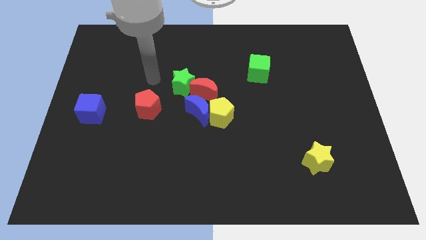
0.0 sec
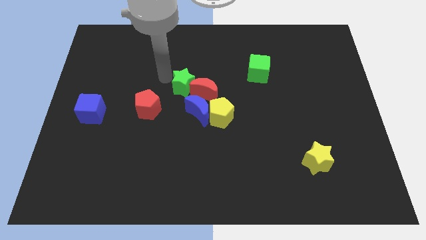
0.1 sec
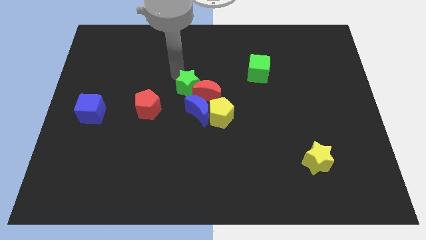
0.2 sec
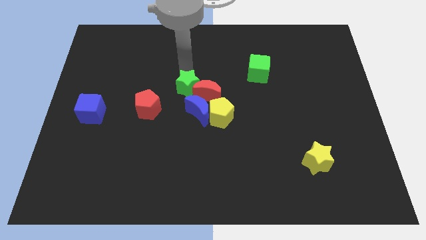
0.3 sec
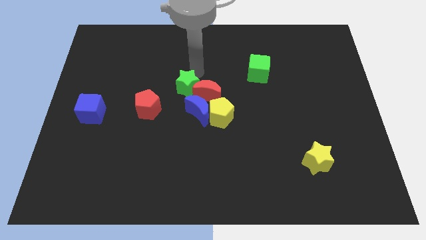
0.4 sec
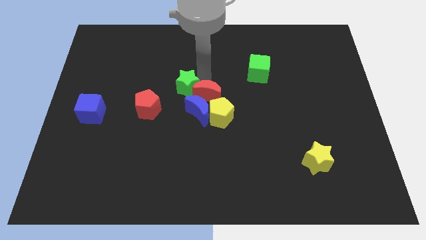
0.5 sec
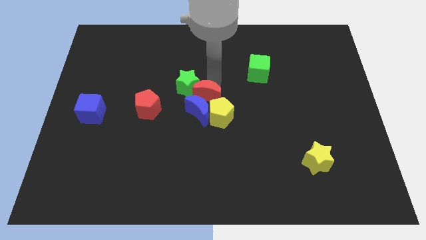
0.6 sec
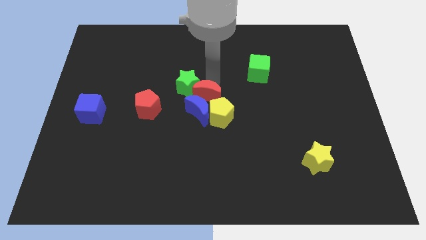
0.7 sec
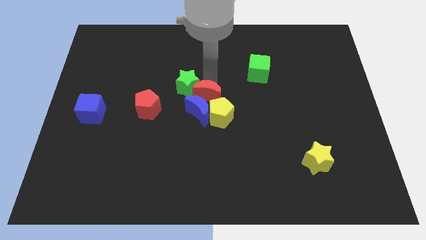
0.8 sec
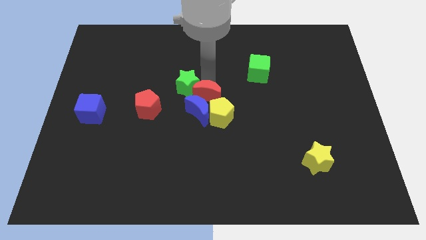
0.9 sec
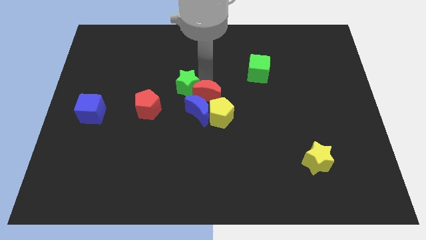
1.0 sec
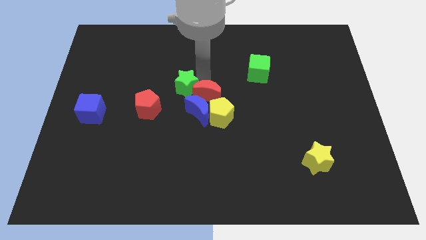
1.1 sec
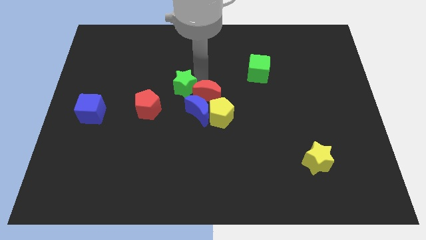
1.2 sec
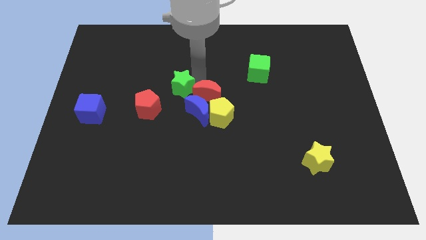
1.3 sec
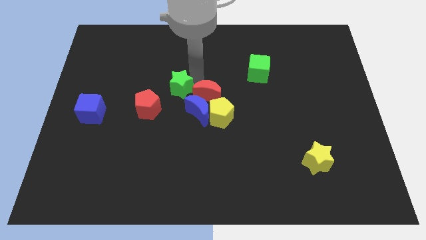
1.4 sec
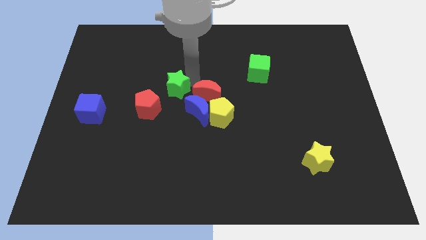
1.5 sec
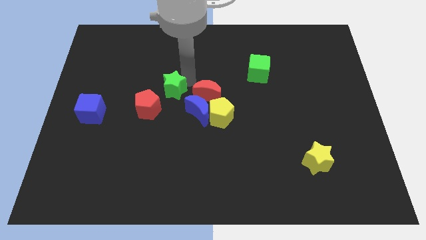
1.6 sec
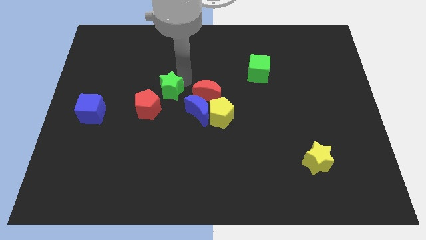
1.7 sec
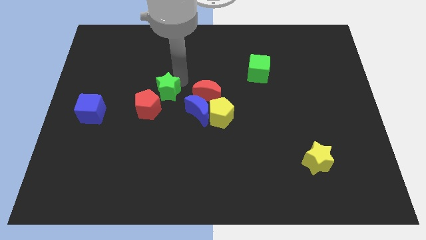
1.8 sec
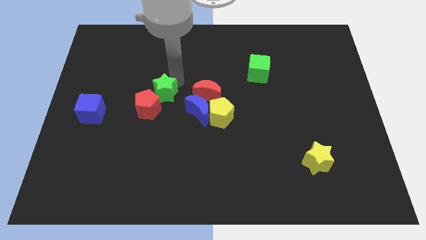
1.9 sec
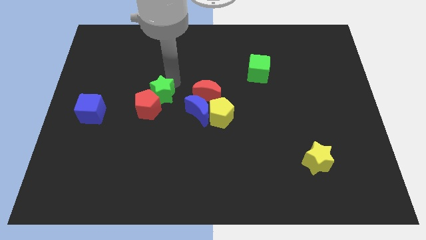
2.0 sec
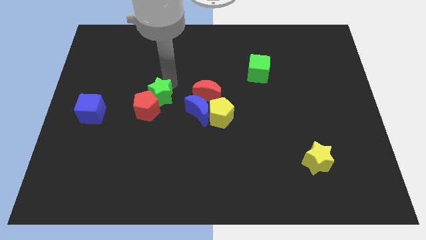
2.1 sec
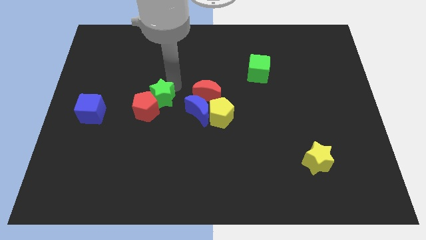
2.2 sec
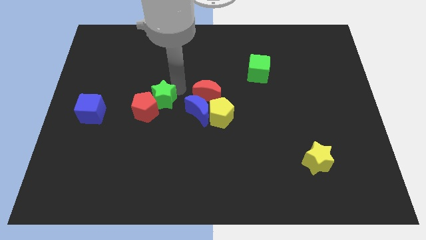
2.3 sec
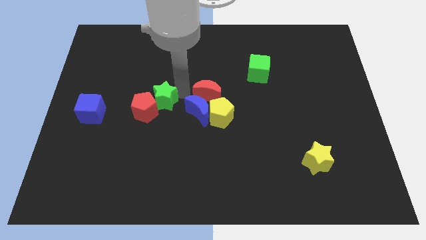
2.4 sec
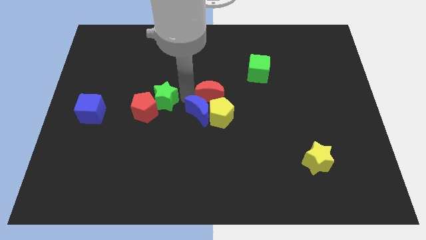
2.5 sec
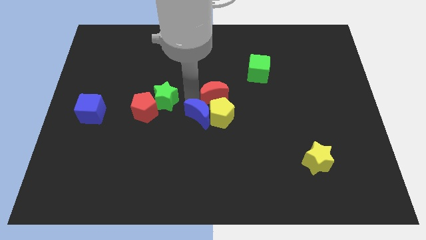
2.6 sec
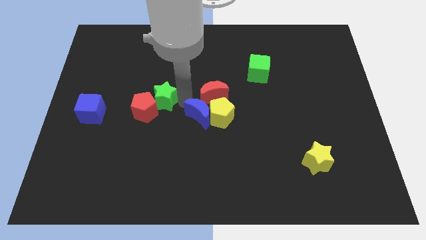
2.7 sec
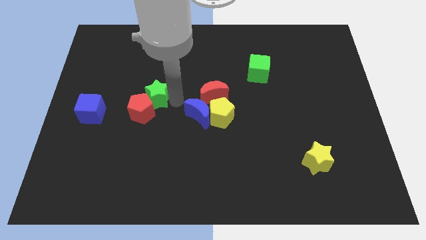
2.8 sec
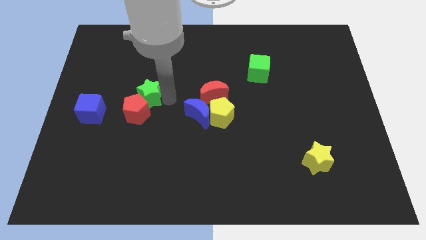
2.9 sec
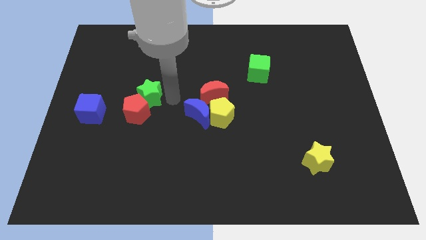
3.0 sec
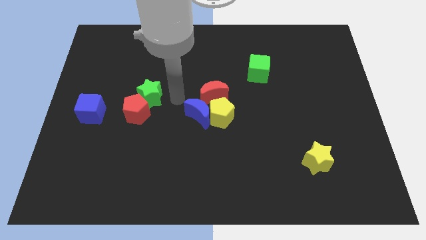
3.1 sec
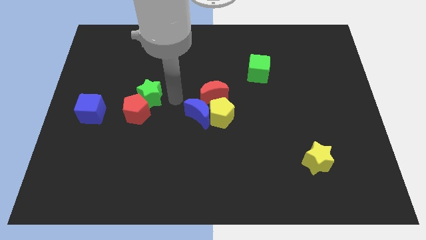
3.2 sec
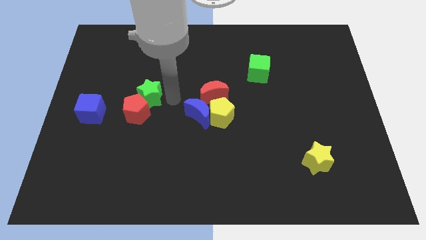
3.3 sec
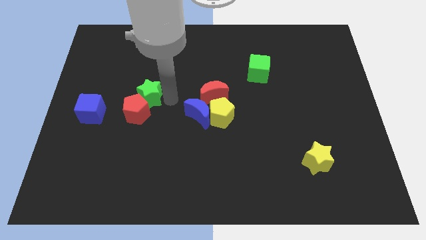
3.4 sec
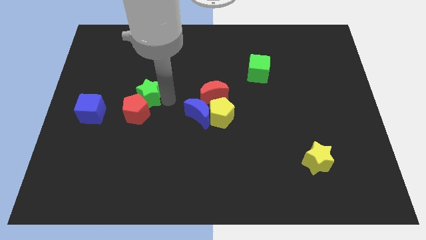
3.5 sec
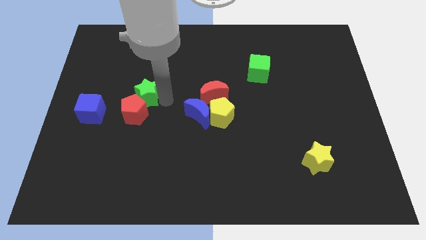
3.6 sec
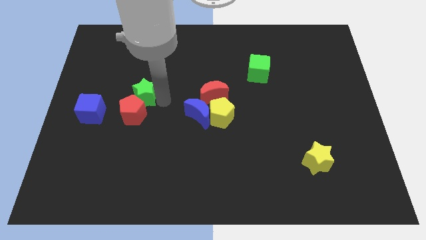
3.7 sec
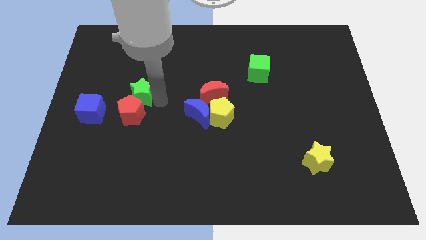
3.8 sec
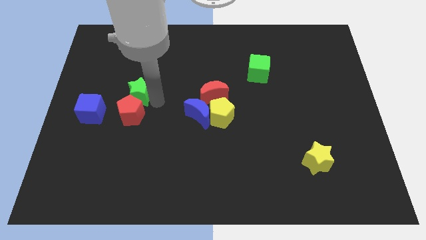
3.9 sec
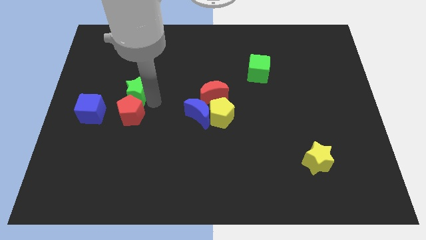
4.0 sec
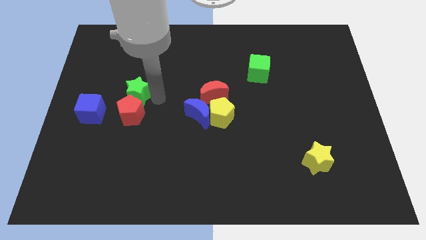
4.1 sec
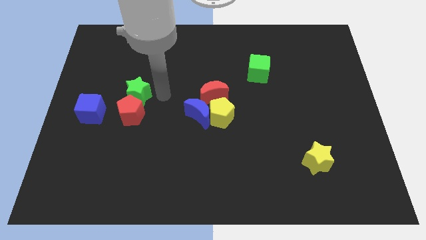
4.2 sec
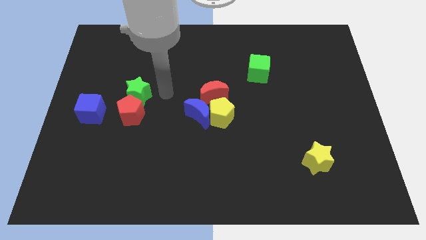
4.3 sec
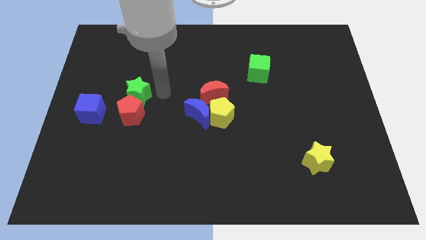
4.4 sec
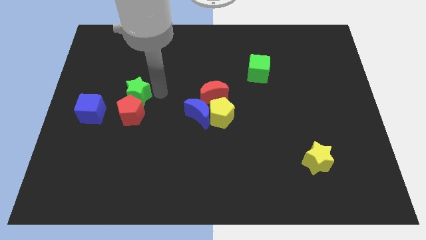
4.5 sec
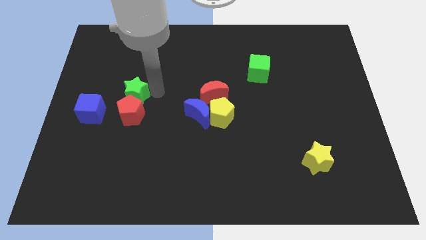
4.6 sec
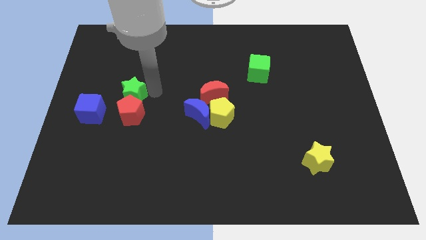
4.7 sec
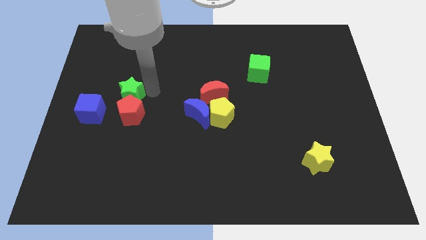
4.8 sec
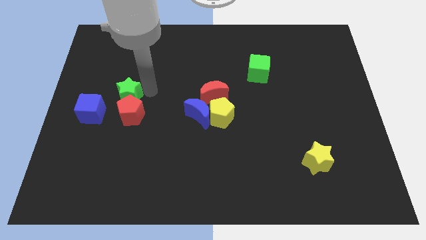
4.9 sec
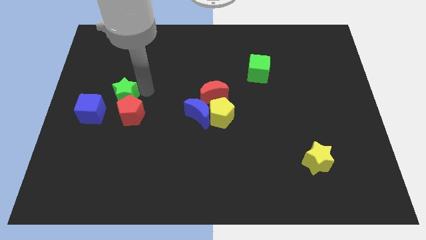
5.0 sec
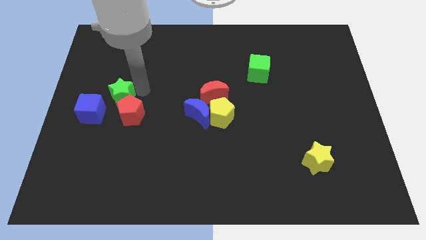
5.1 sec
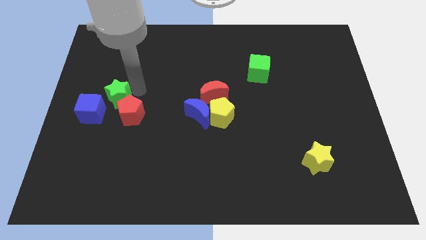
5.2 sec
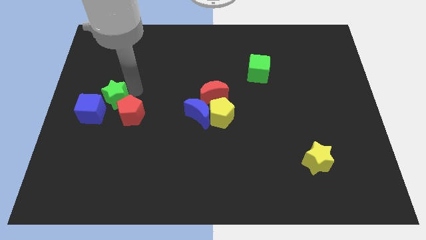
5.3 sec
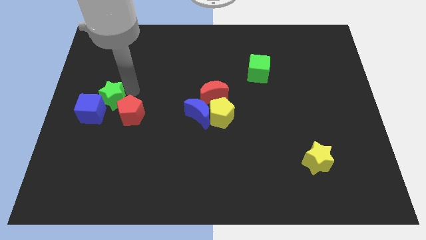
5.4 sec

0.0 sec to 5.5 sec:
put the green star to the blue cube

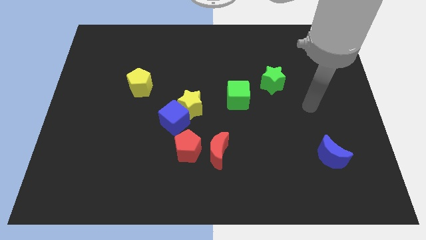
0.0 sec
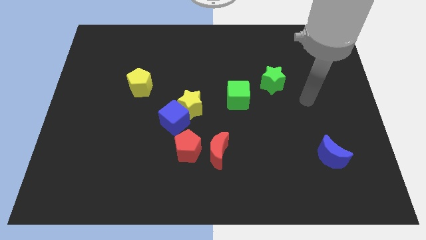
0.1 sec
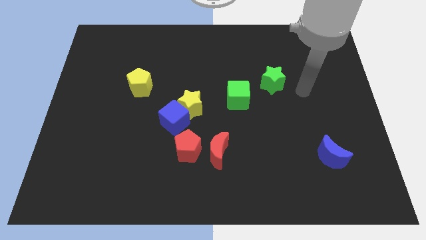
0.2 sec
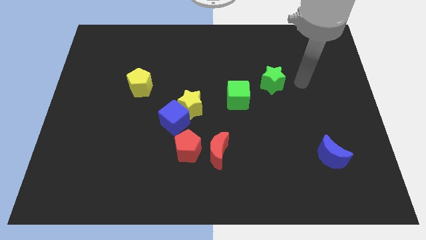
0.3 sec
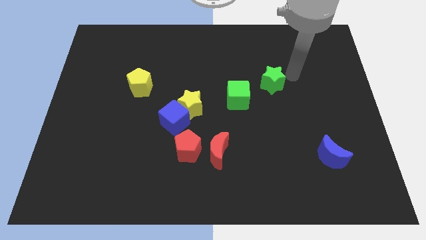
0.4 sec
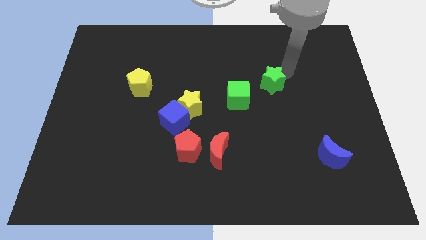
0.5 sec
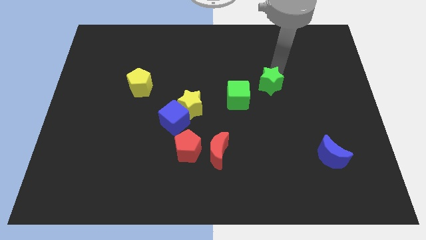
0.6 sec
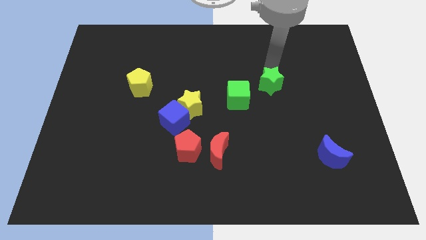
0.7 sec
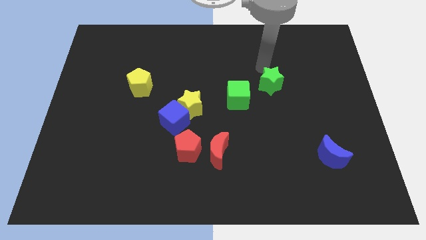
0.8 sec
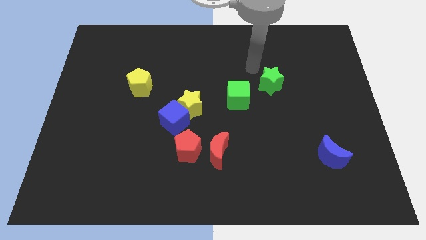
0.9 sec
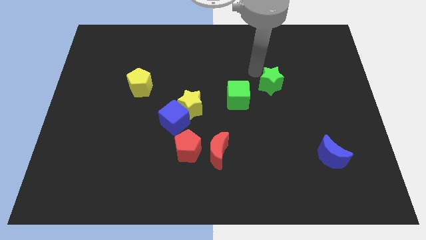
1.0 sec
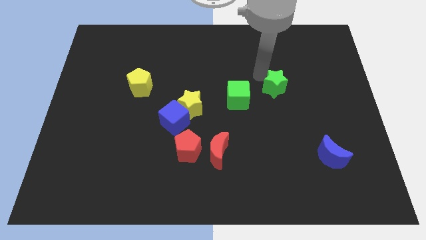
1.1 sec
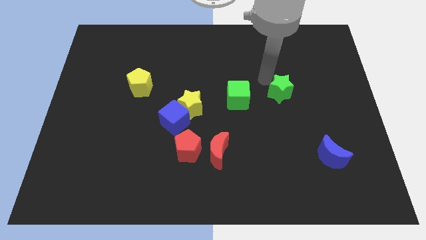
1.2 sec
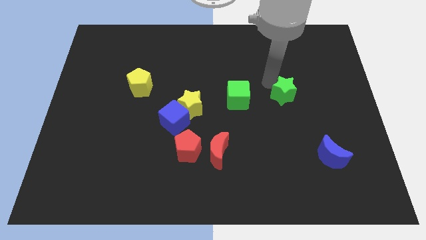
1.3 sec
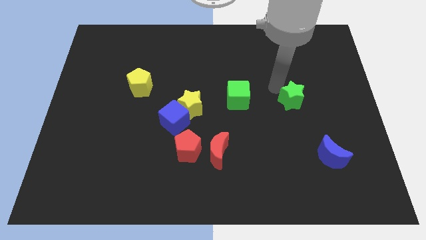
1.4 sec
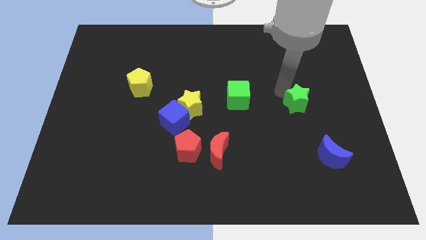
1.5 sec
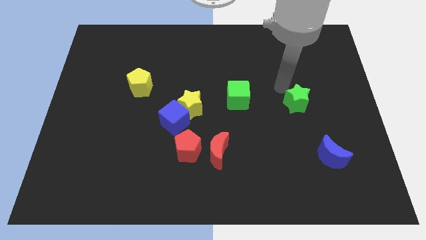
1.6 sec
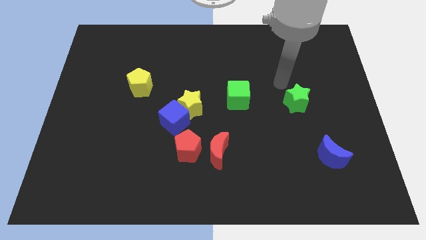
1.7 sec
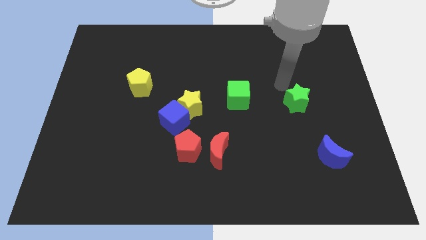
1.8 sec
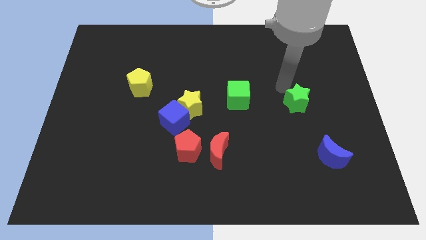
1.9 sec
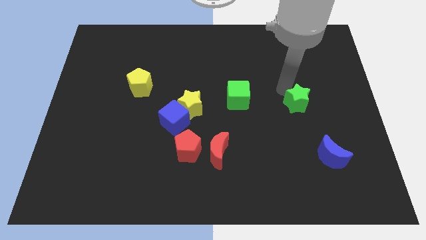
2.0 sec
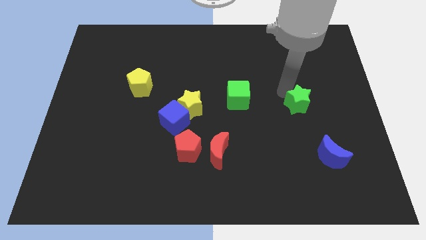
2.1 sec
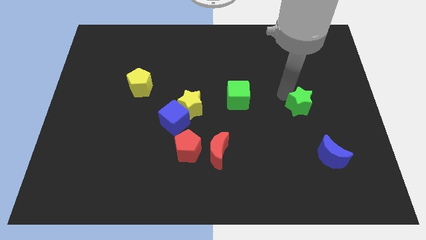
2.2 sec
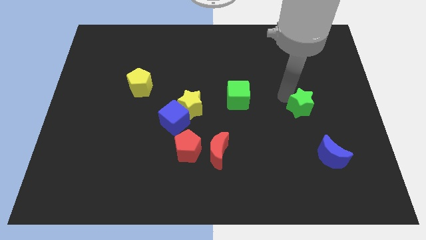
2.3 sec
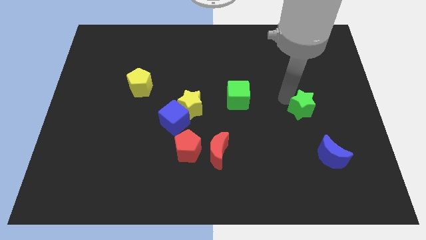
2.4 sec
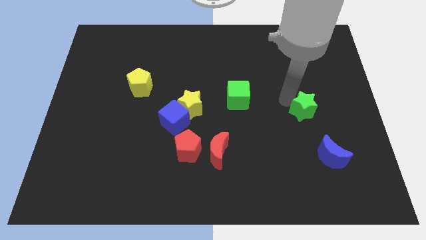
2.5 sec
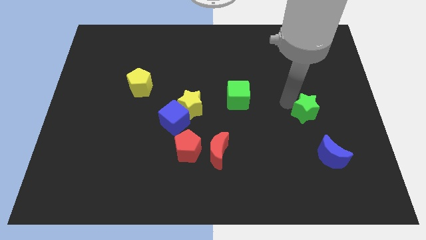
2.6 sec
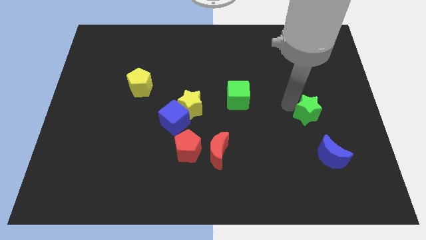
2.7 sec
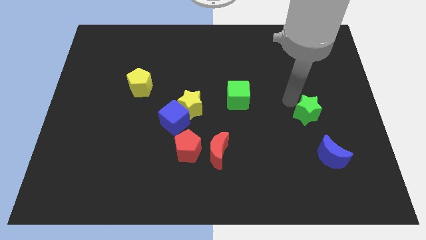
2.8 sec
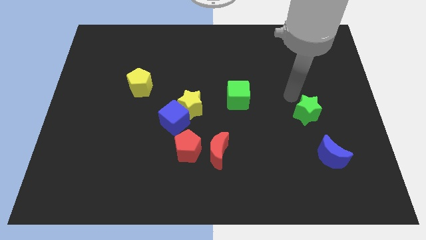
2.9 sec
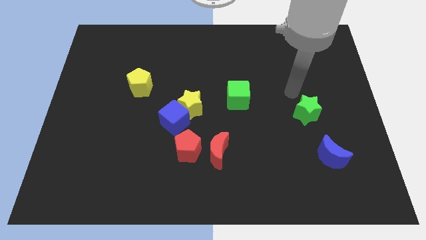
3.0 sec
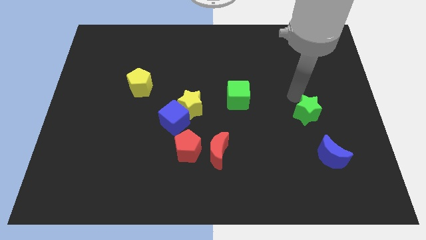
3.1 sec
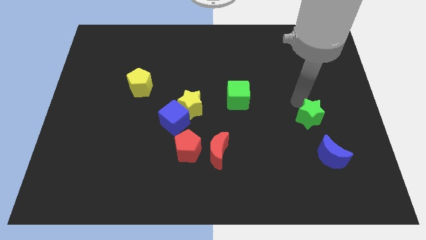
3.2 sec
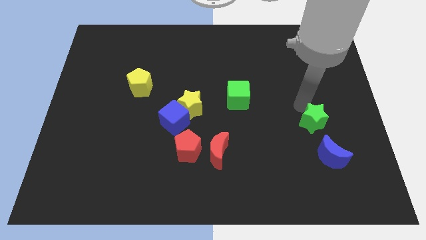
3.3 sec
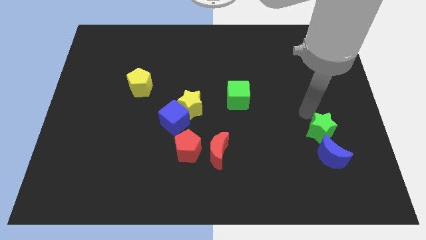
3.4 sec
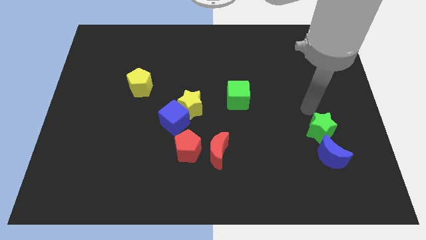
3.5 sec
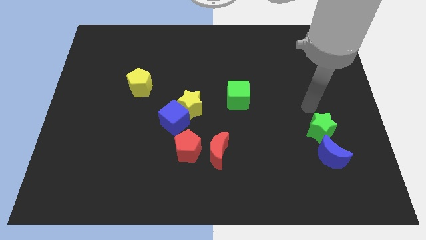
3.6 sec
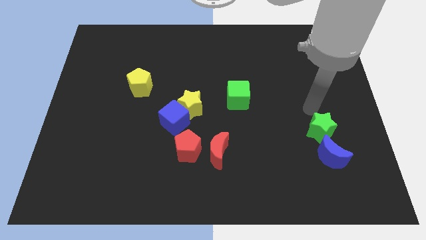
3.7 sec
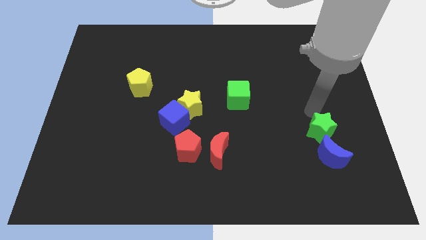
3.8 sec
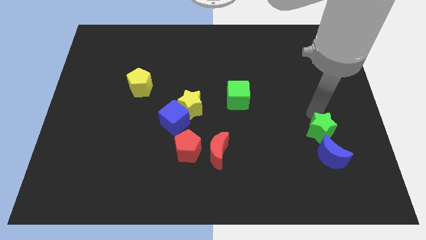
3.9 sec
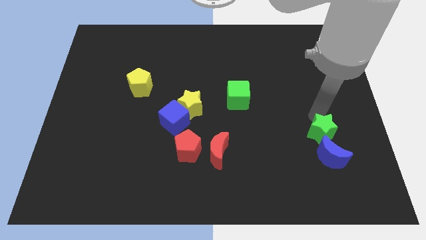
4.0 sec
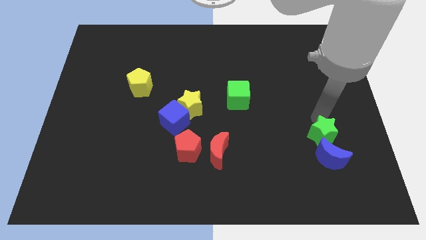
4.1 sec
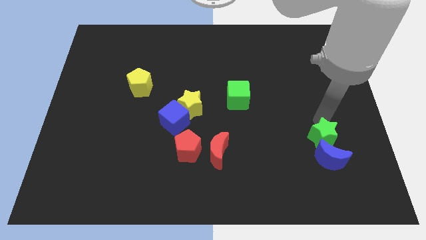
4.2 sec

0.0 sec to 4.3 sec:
move the green star towards the blue moon
